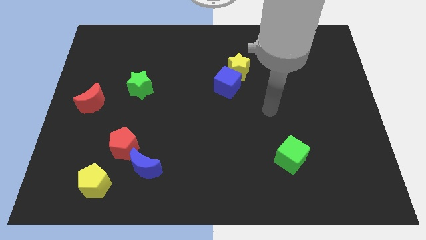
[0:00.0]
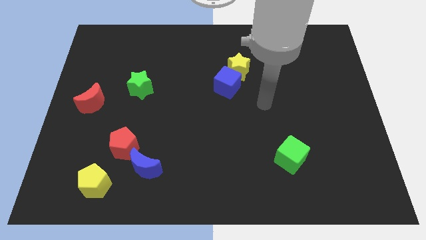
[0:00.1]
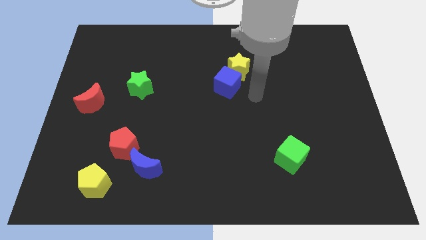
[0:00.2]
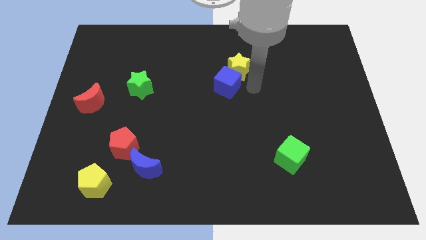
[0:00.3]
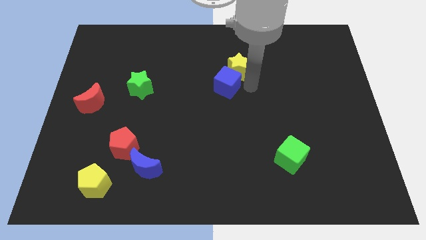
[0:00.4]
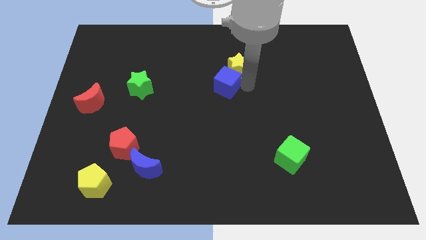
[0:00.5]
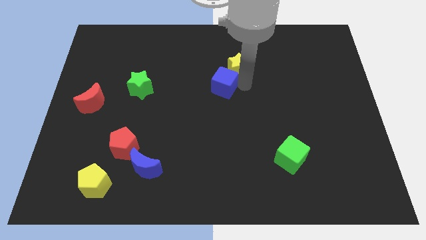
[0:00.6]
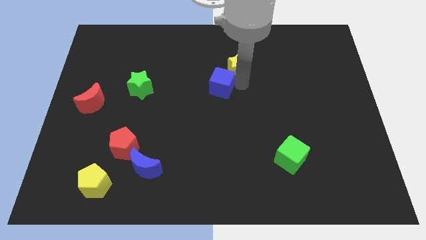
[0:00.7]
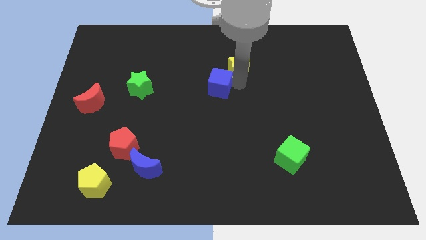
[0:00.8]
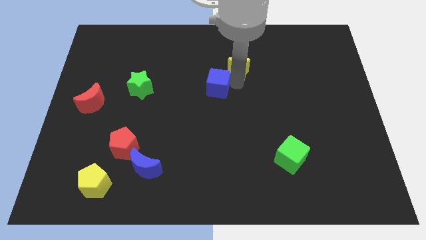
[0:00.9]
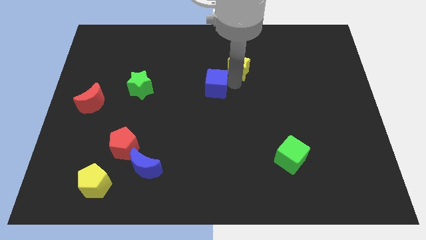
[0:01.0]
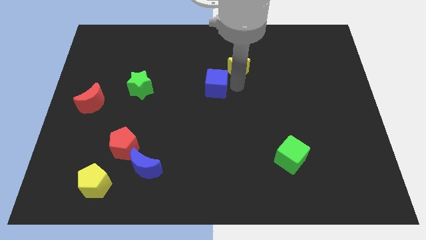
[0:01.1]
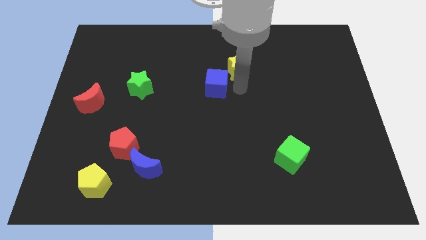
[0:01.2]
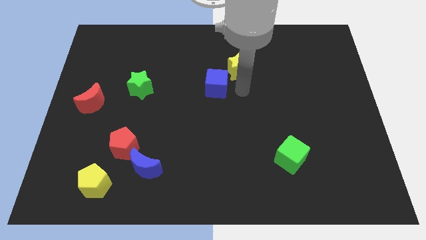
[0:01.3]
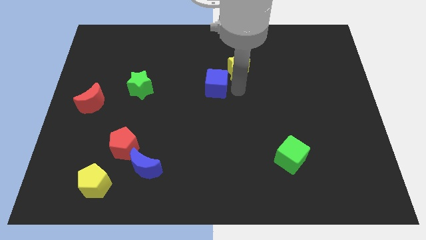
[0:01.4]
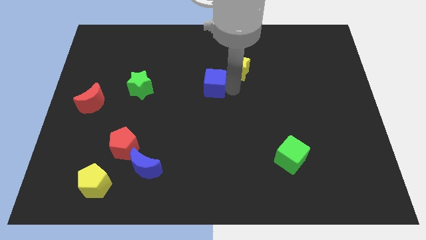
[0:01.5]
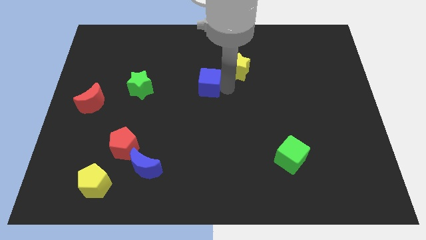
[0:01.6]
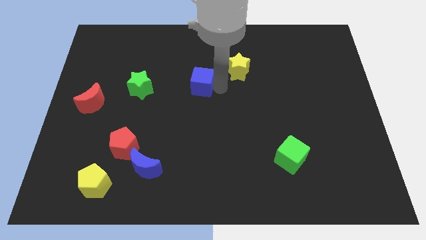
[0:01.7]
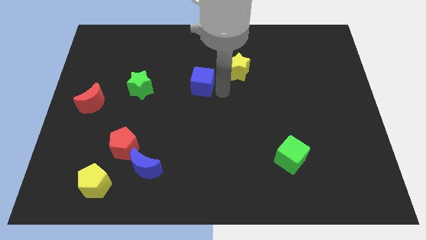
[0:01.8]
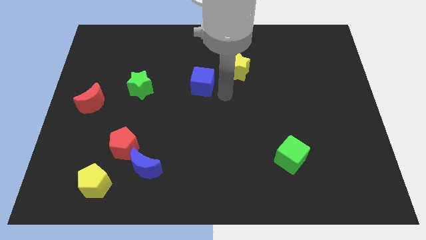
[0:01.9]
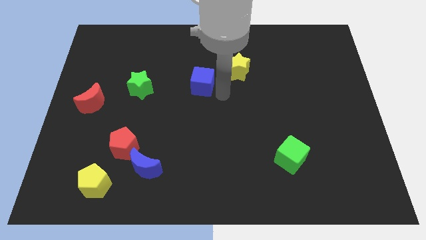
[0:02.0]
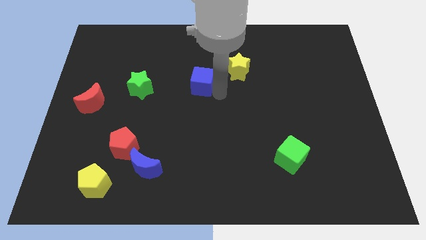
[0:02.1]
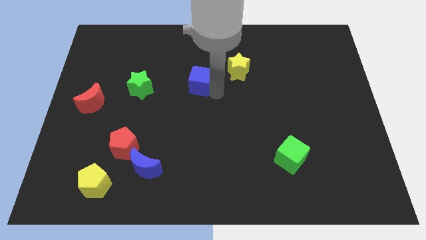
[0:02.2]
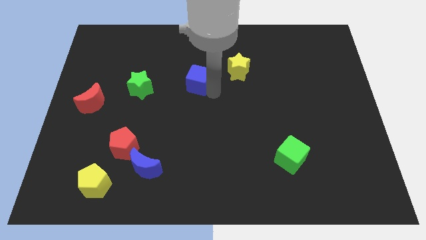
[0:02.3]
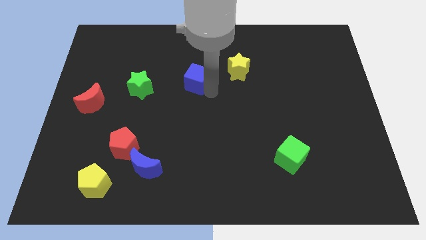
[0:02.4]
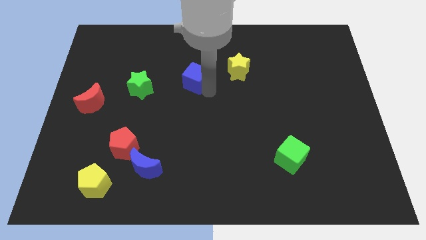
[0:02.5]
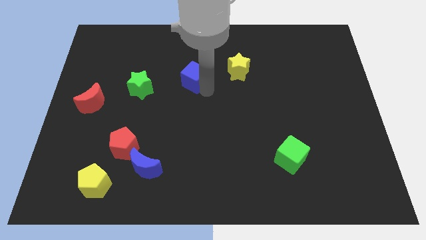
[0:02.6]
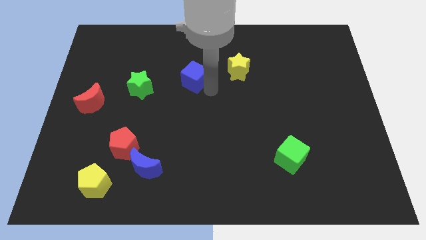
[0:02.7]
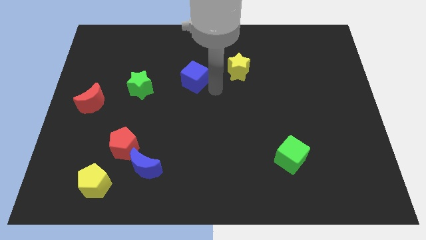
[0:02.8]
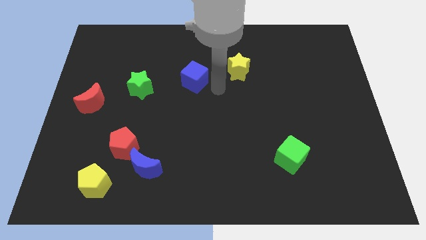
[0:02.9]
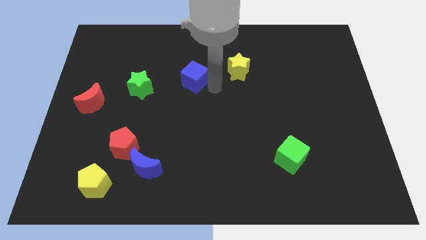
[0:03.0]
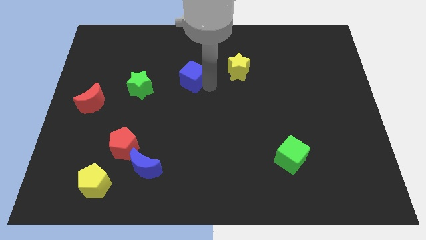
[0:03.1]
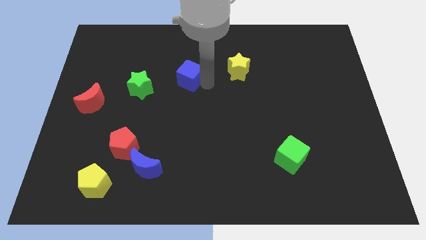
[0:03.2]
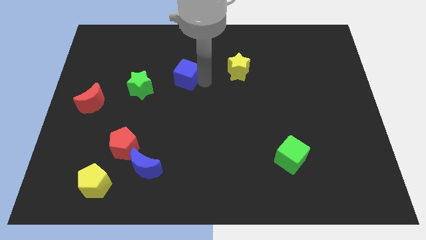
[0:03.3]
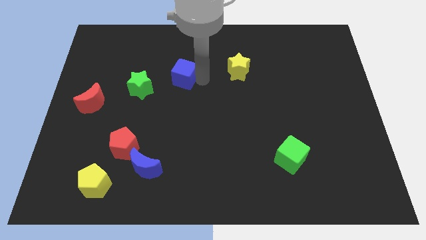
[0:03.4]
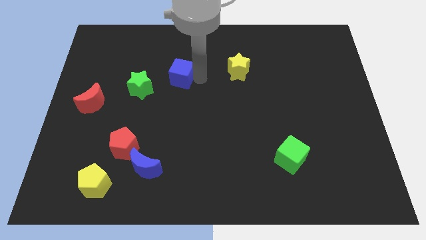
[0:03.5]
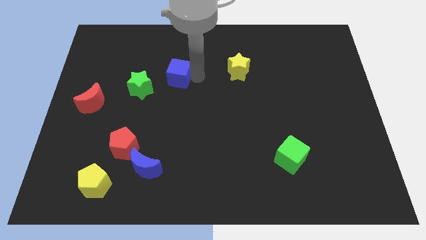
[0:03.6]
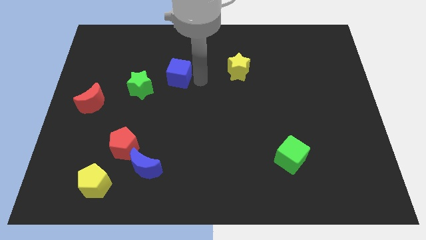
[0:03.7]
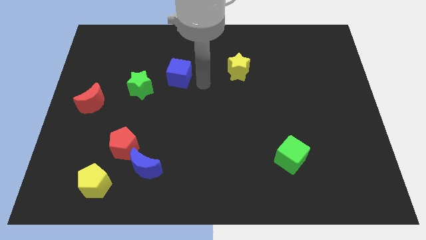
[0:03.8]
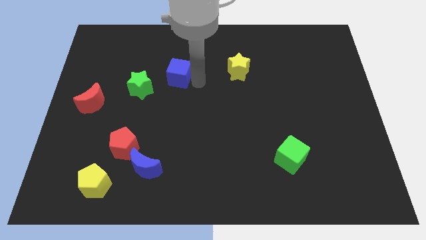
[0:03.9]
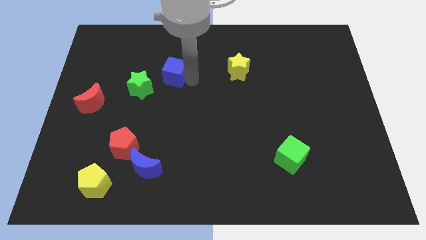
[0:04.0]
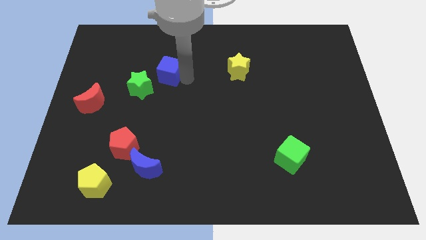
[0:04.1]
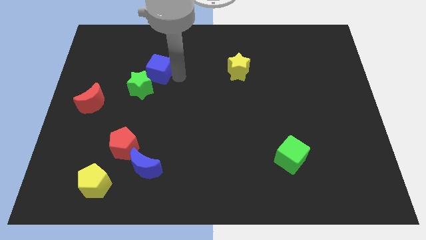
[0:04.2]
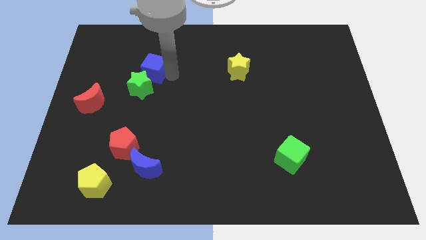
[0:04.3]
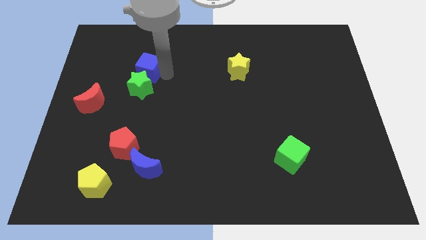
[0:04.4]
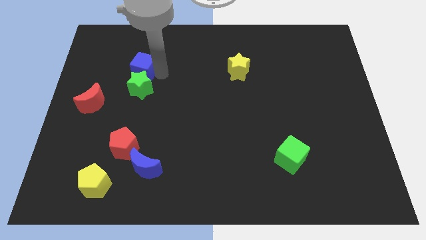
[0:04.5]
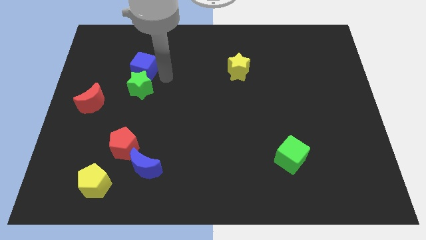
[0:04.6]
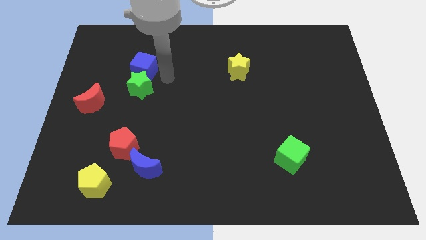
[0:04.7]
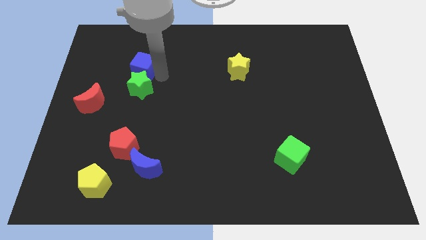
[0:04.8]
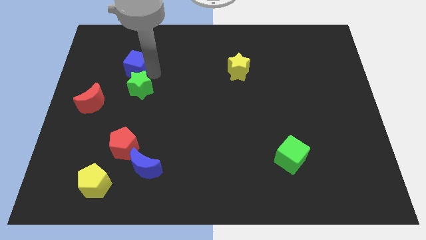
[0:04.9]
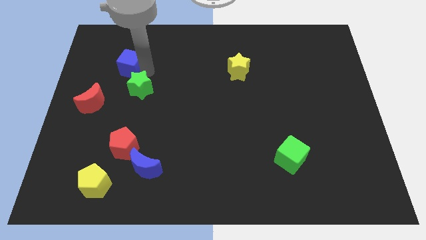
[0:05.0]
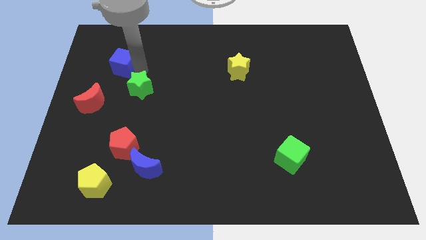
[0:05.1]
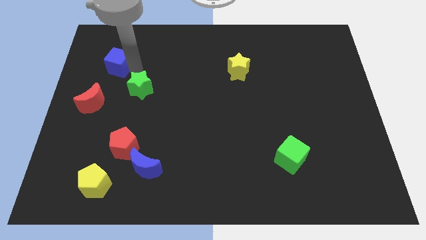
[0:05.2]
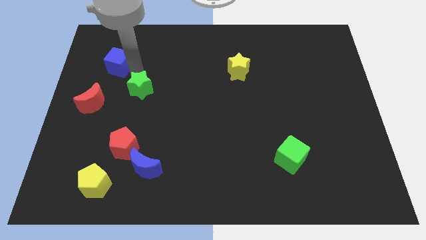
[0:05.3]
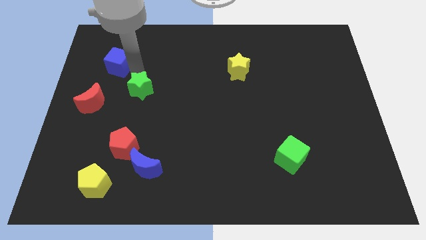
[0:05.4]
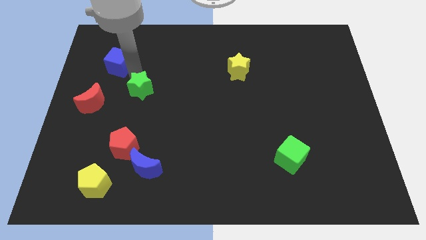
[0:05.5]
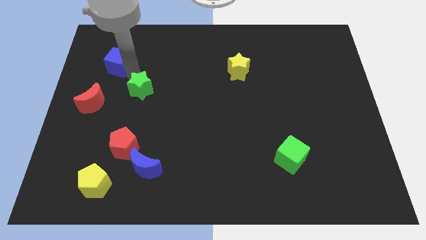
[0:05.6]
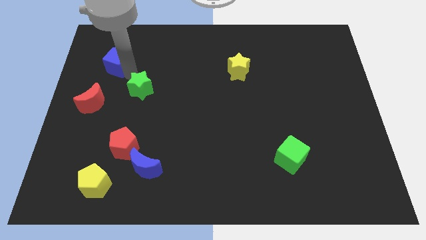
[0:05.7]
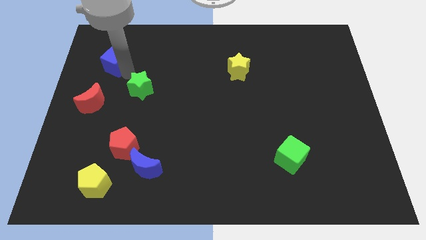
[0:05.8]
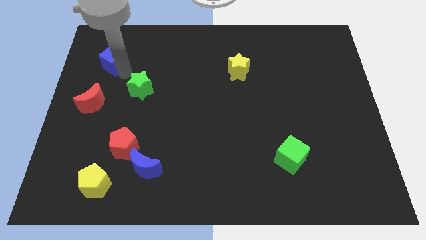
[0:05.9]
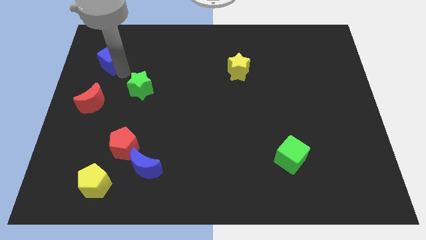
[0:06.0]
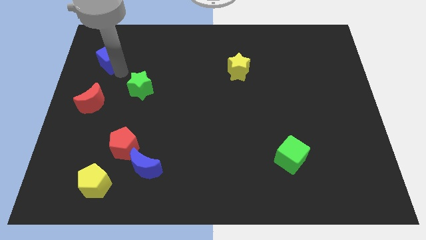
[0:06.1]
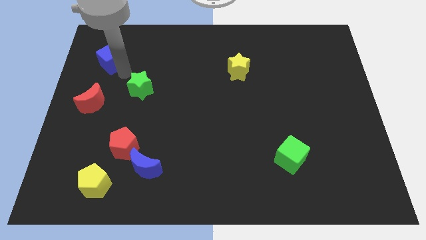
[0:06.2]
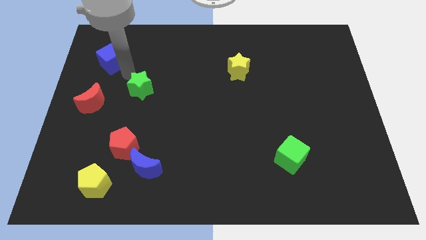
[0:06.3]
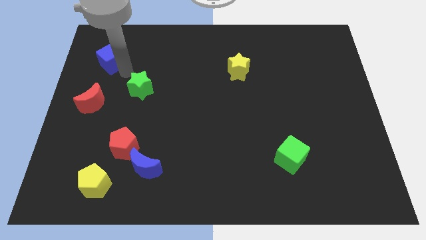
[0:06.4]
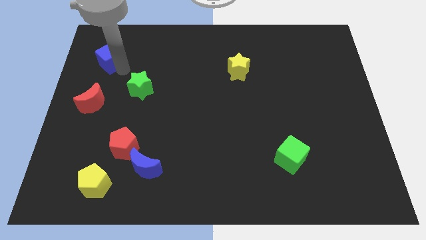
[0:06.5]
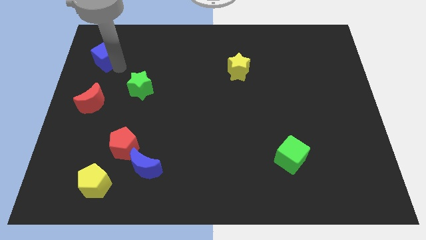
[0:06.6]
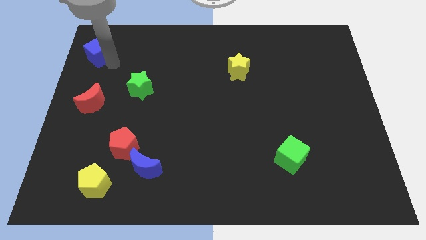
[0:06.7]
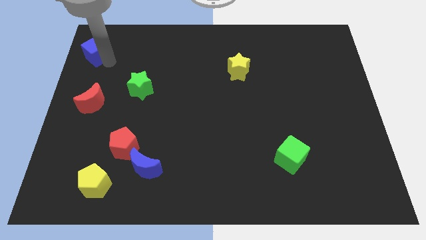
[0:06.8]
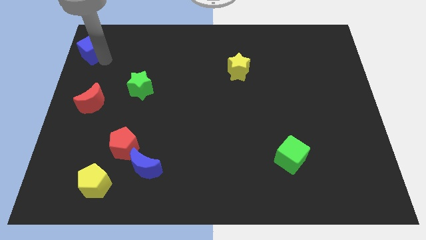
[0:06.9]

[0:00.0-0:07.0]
slide the blue cube to the upper left corner
